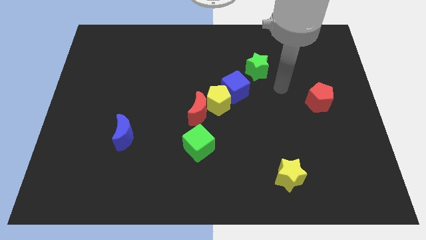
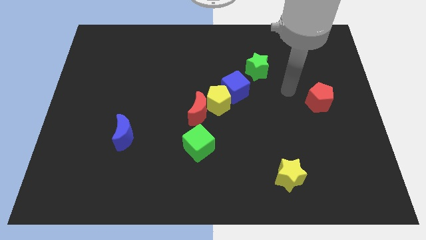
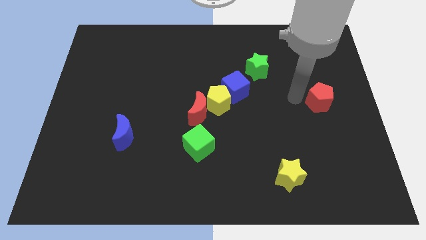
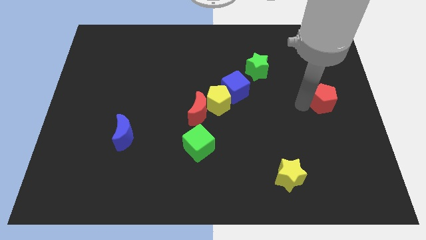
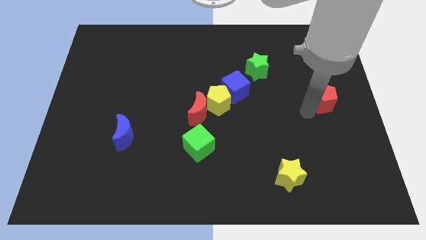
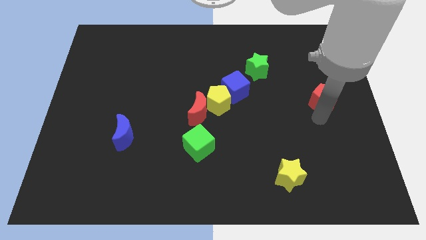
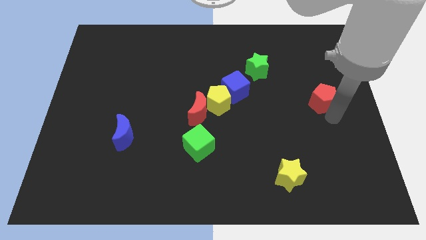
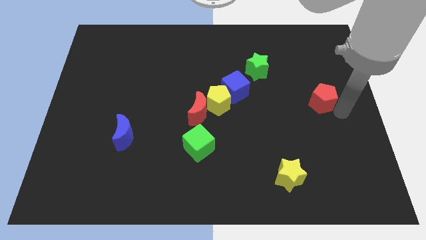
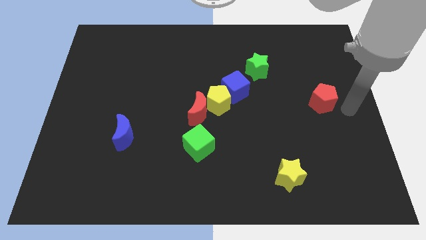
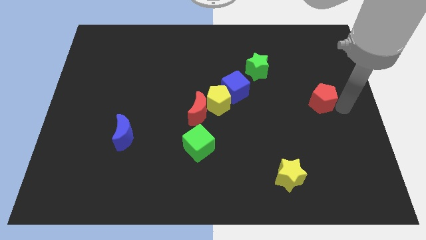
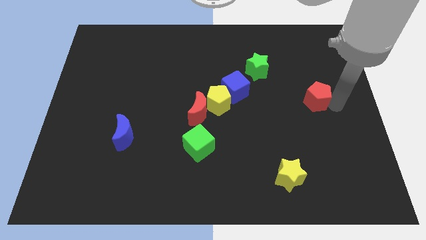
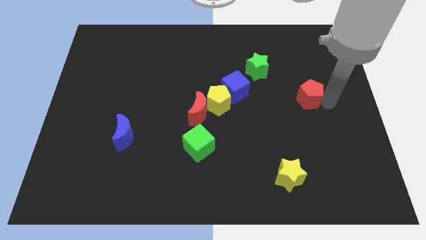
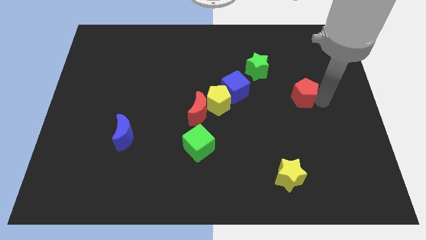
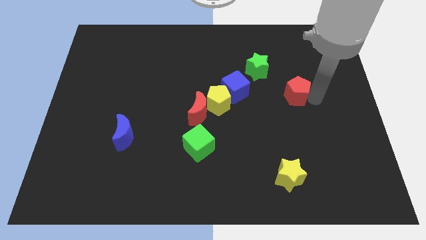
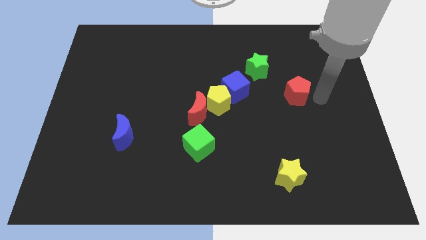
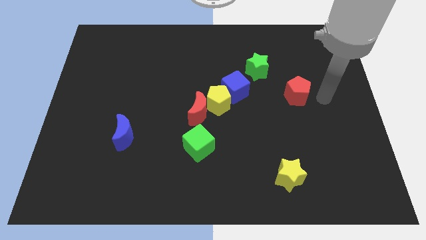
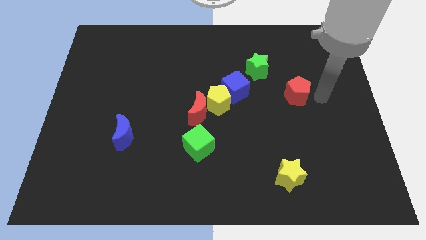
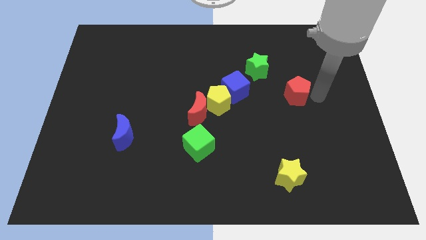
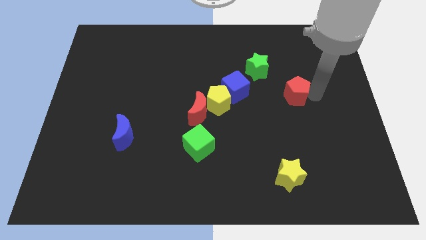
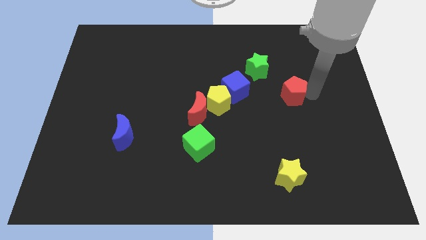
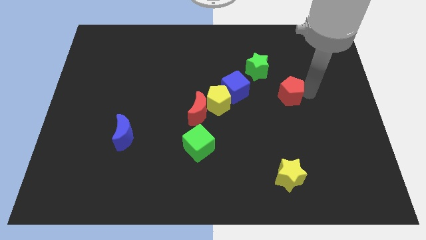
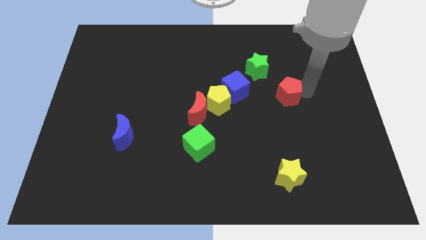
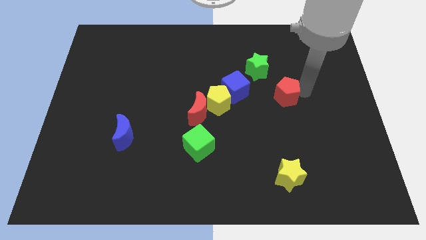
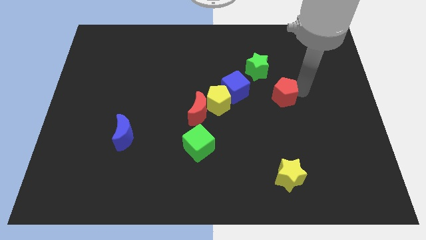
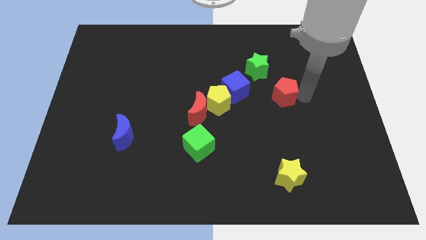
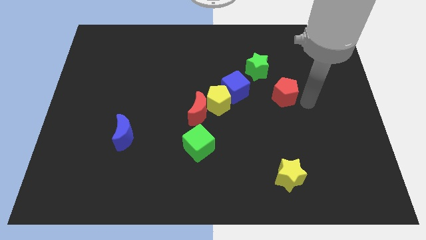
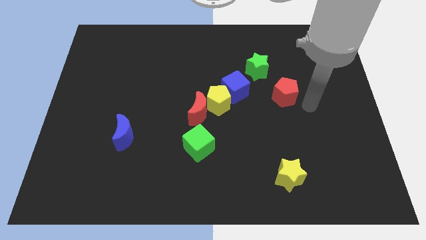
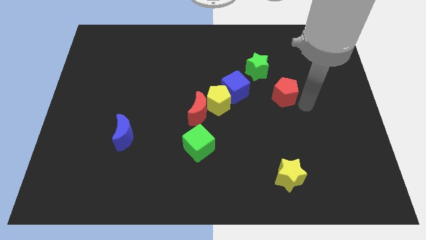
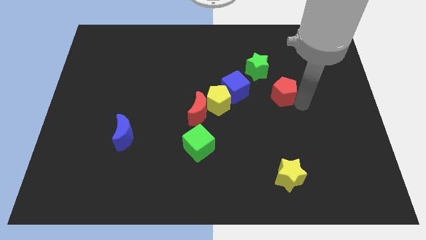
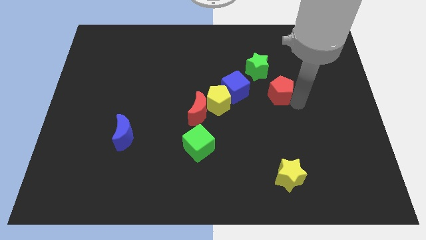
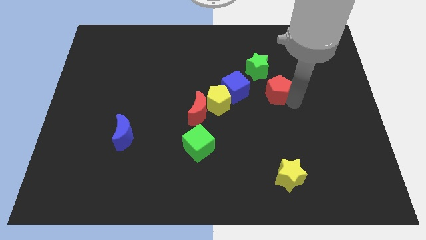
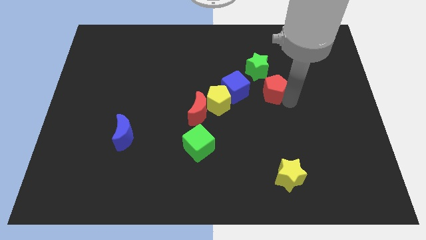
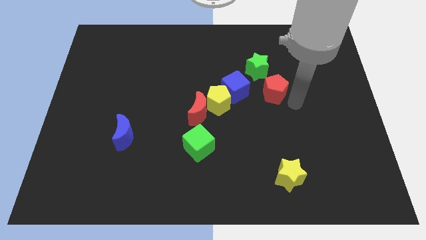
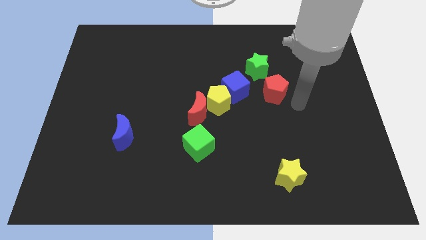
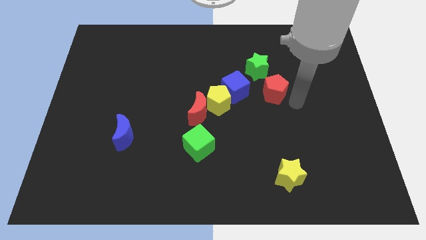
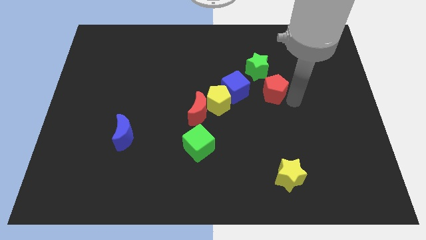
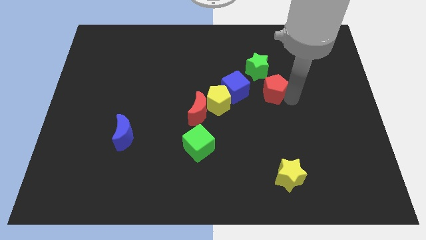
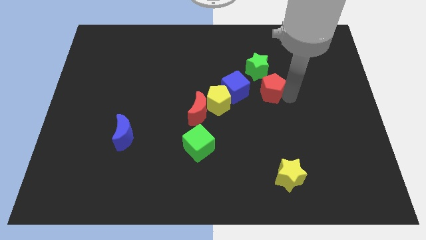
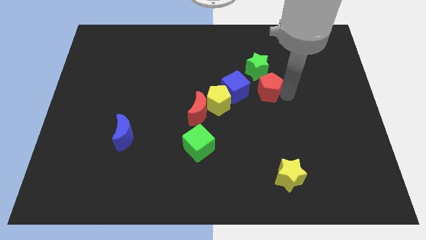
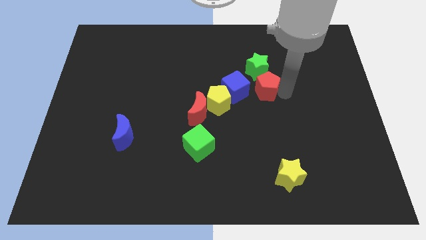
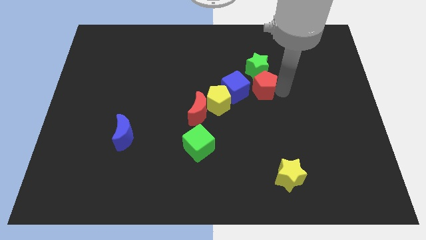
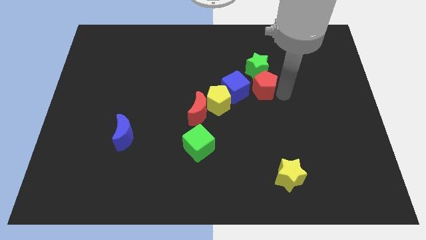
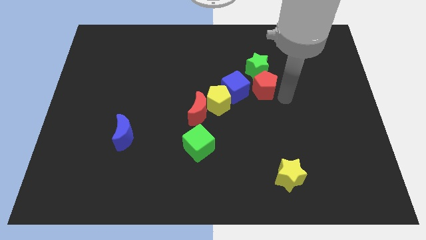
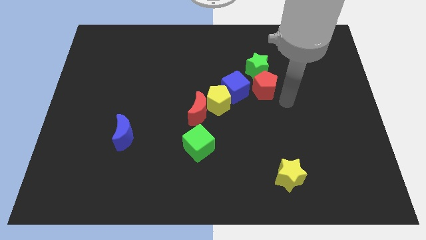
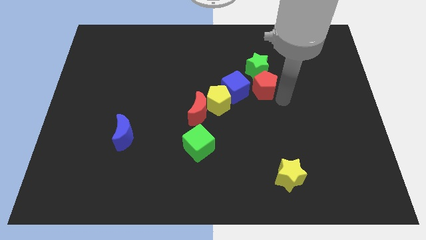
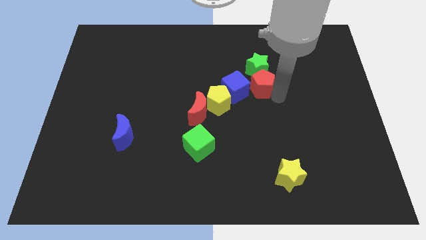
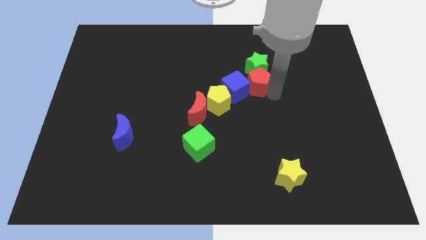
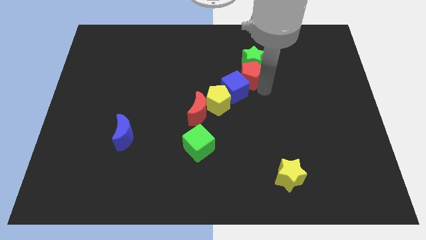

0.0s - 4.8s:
put the red pentagon above the blue cube

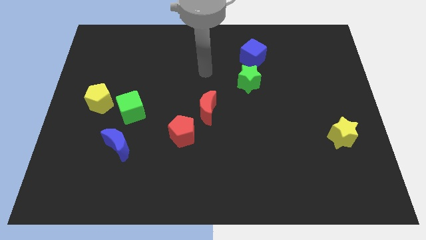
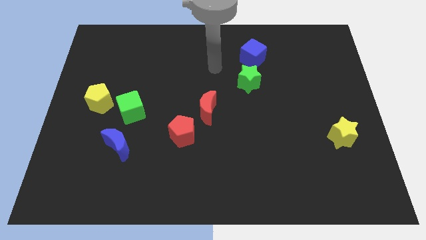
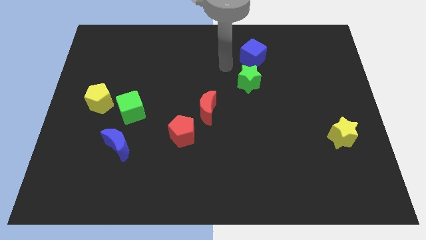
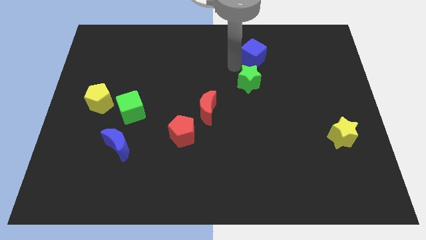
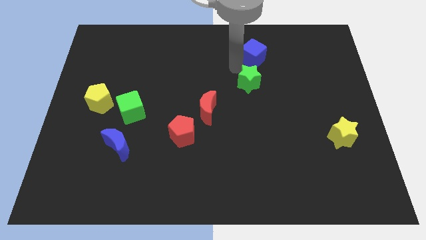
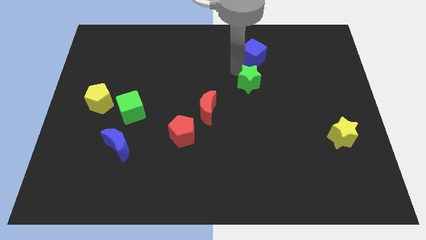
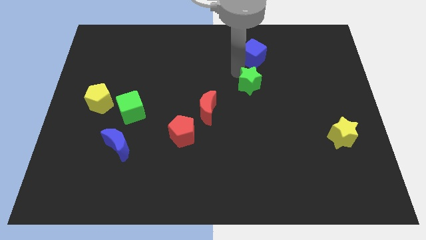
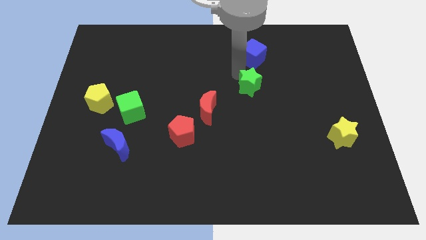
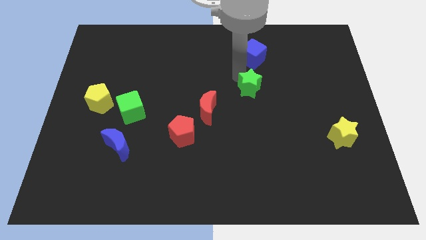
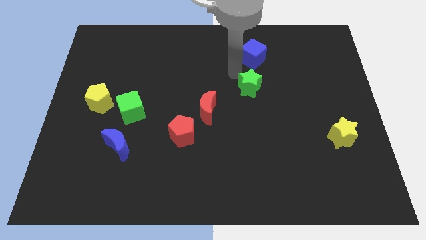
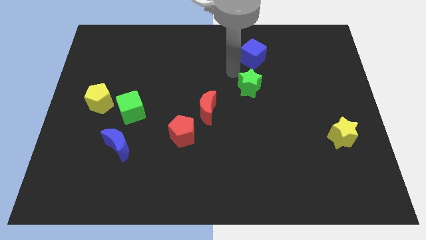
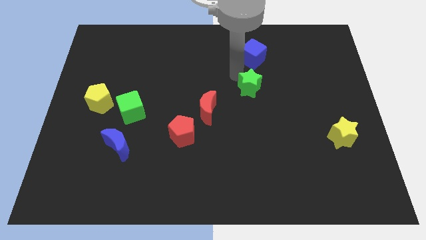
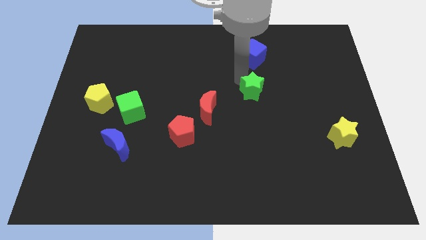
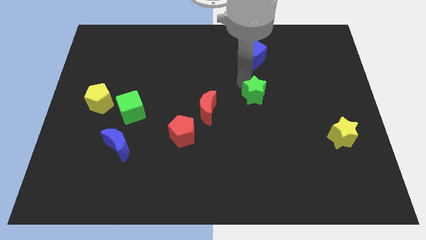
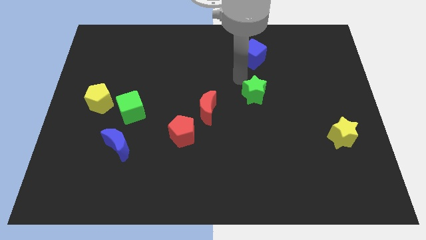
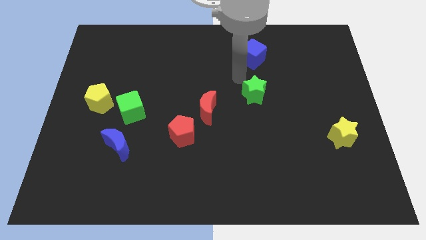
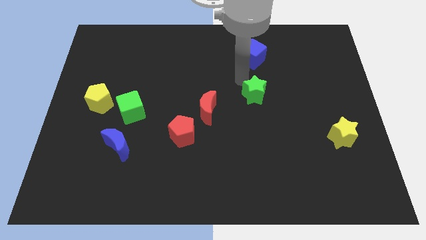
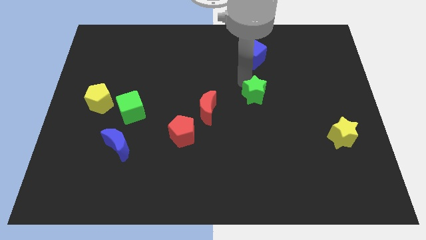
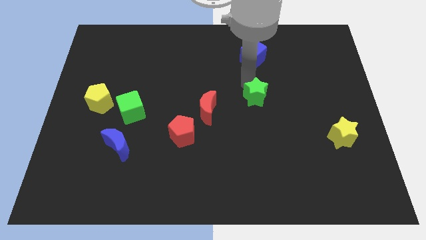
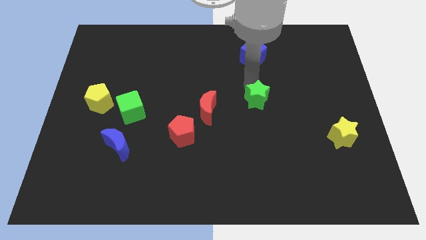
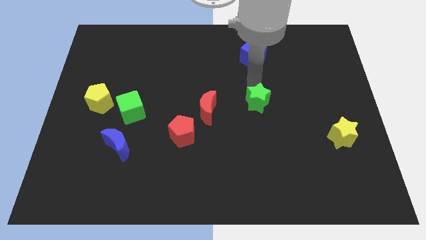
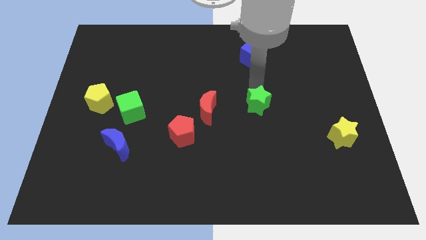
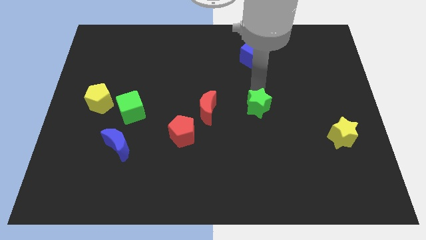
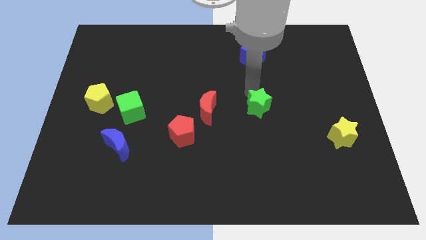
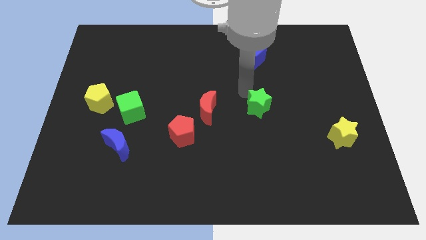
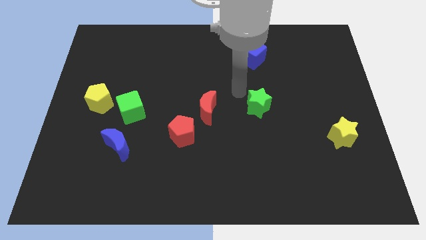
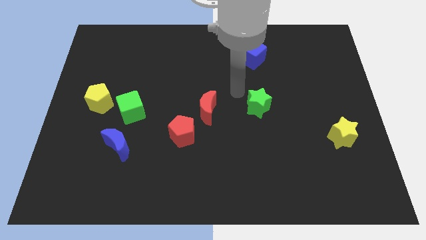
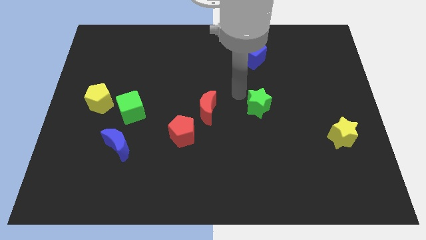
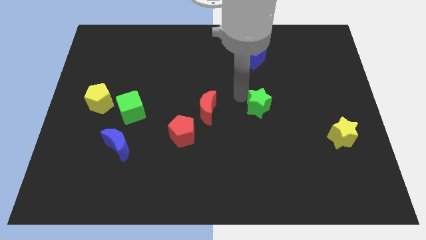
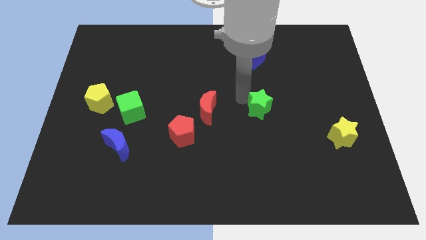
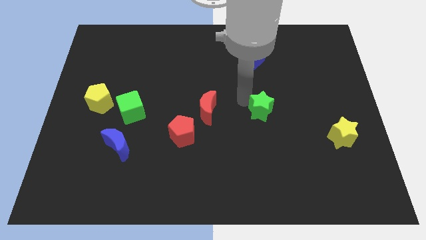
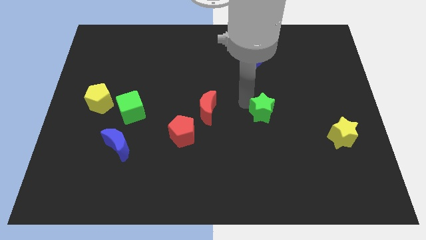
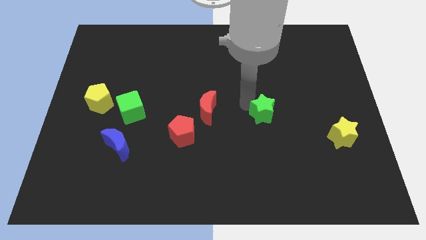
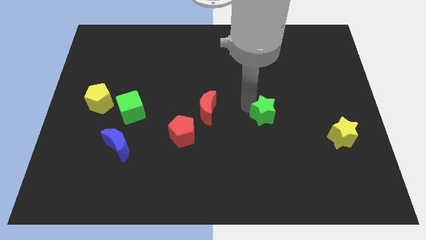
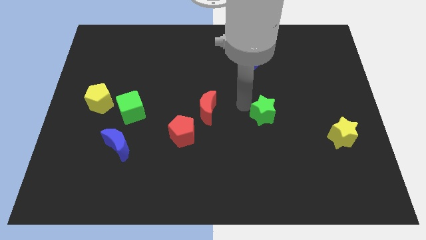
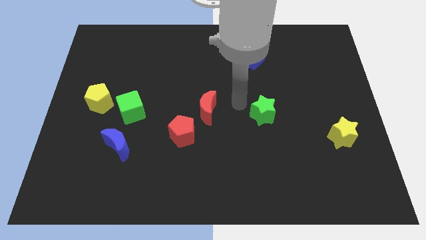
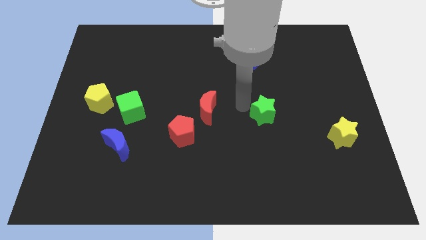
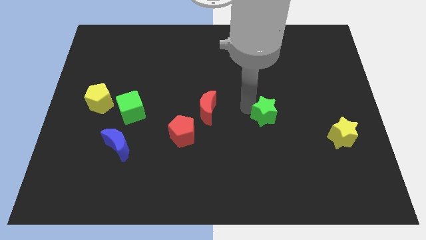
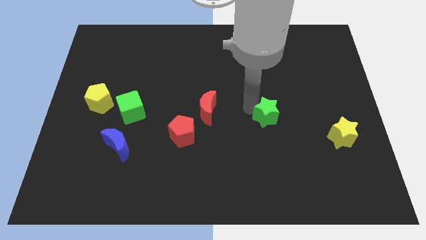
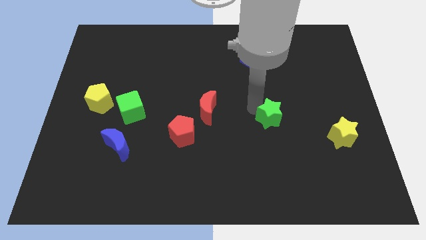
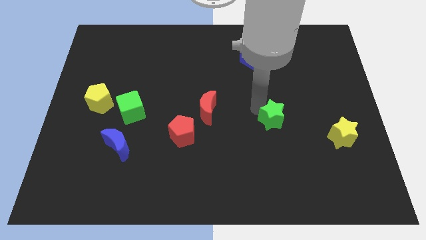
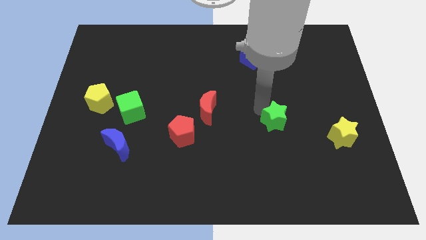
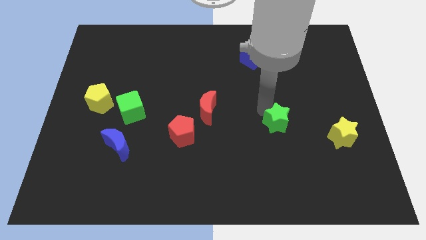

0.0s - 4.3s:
slide the green star left of the yellow star
